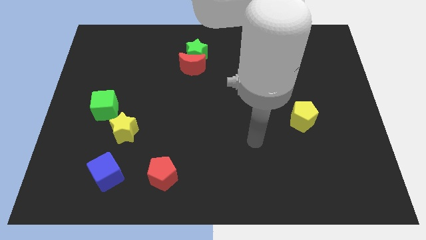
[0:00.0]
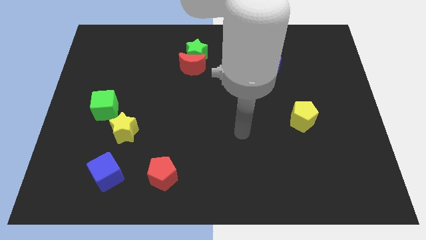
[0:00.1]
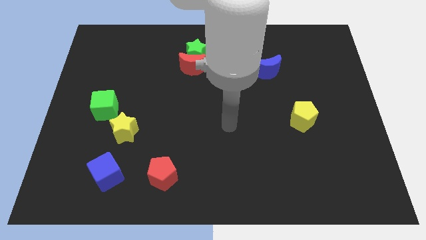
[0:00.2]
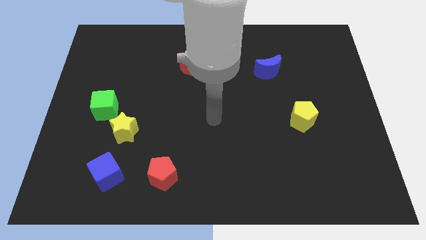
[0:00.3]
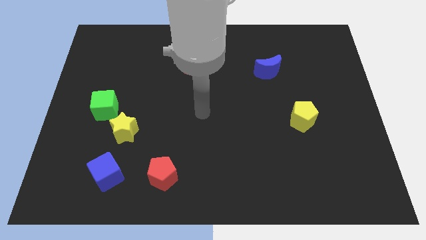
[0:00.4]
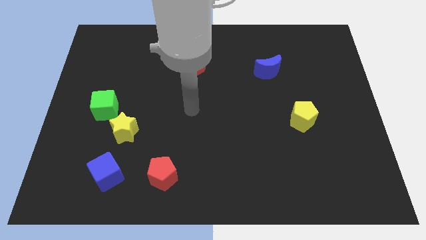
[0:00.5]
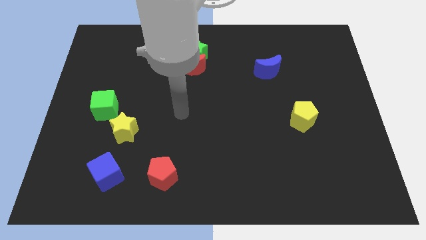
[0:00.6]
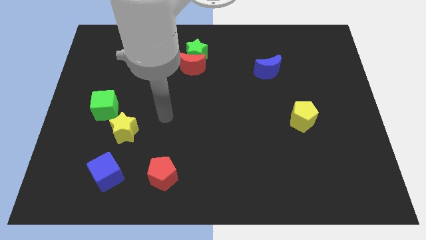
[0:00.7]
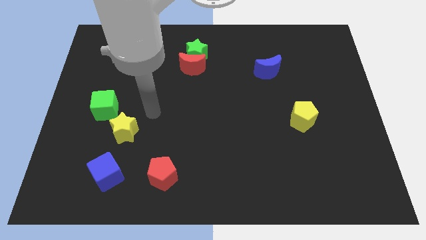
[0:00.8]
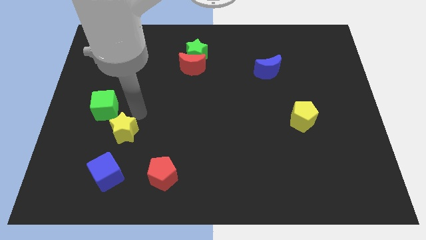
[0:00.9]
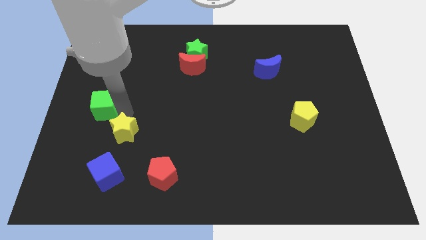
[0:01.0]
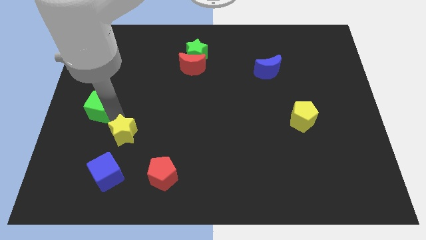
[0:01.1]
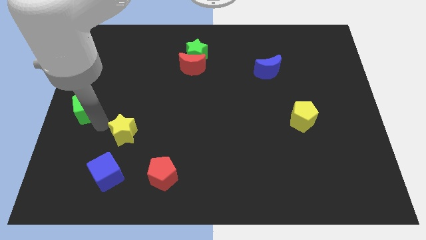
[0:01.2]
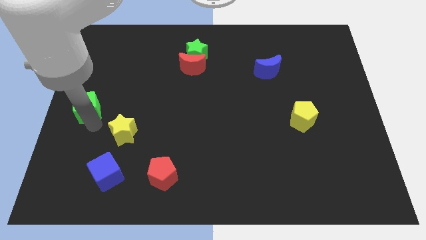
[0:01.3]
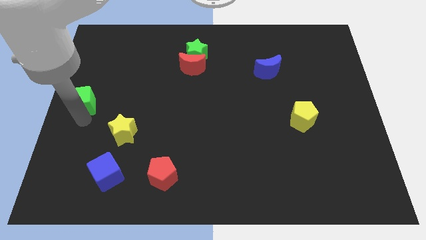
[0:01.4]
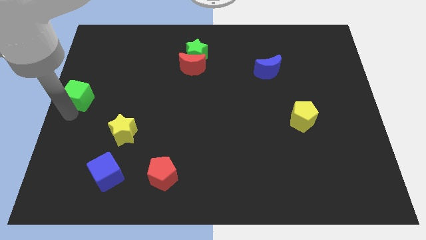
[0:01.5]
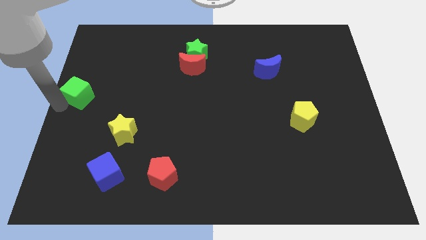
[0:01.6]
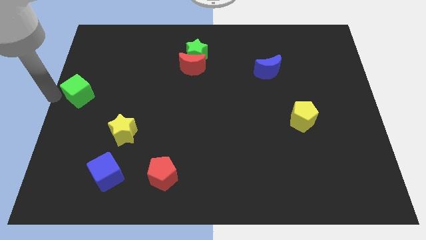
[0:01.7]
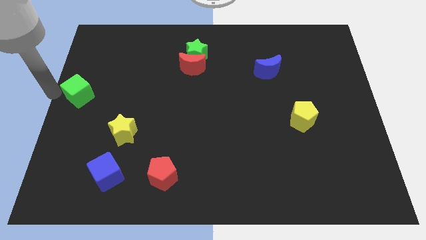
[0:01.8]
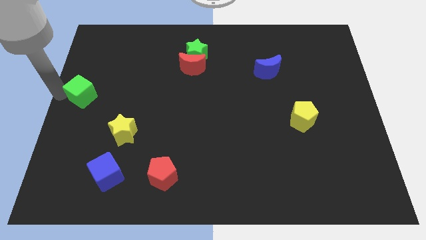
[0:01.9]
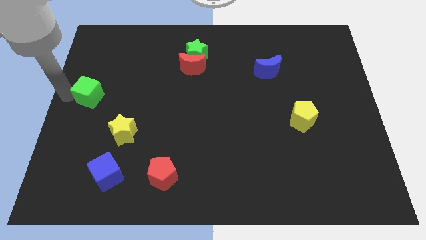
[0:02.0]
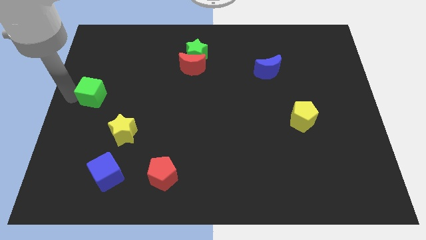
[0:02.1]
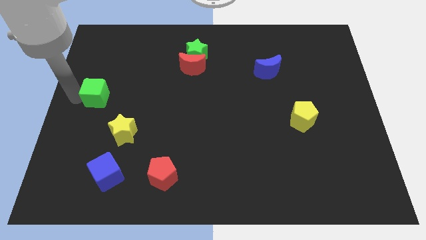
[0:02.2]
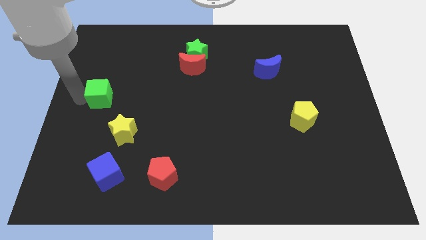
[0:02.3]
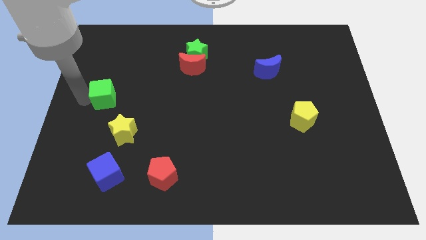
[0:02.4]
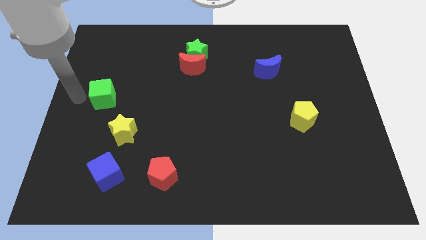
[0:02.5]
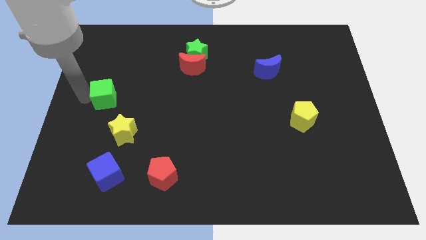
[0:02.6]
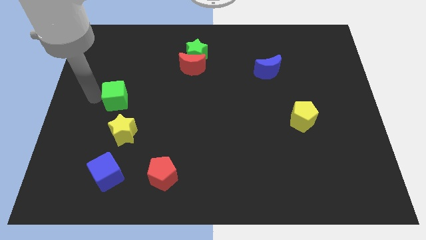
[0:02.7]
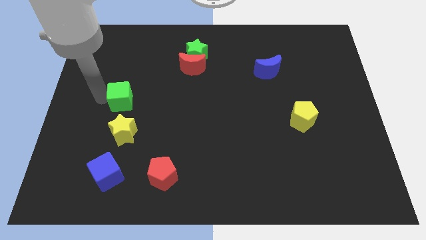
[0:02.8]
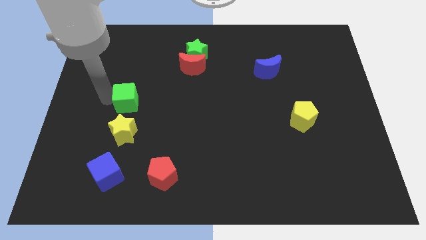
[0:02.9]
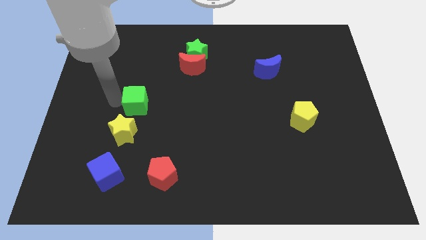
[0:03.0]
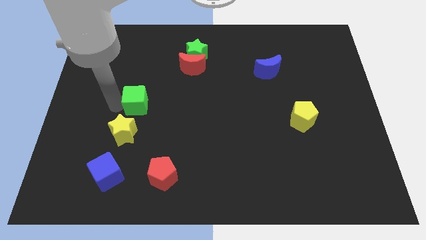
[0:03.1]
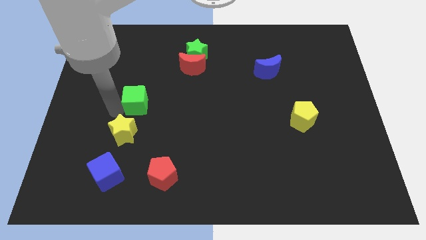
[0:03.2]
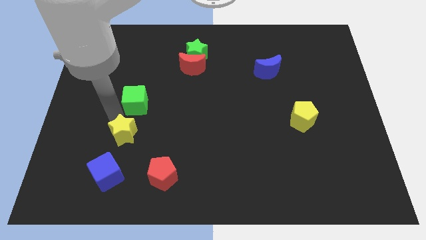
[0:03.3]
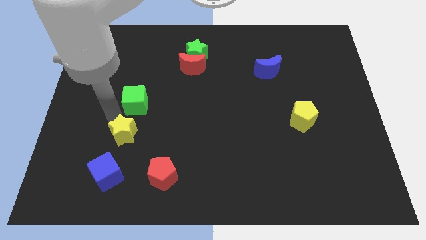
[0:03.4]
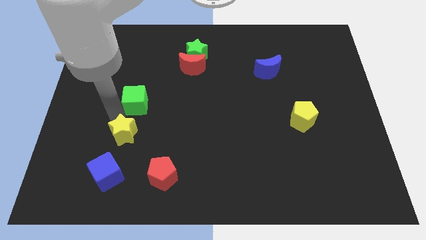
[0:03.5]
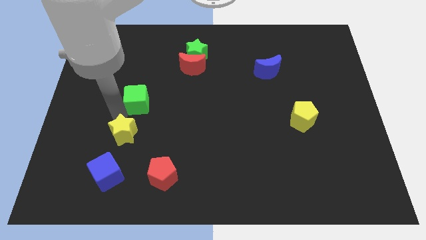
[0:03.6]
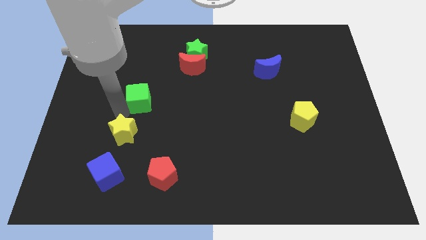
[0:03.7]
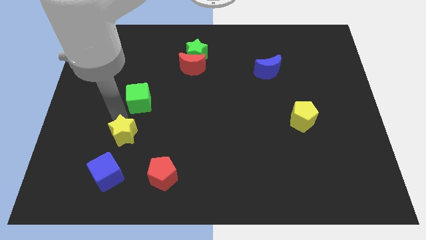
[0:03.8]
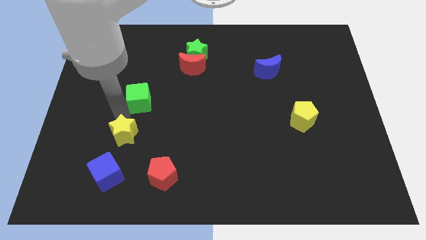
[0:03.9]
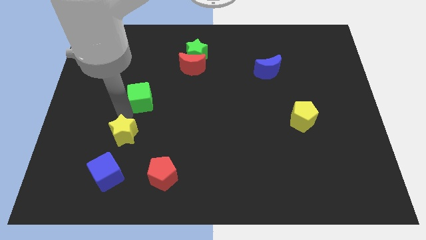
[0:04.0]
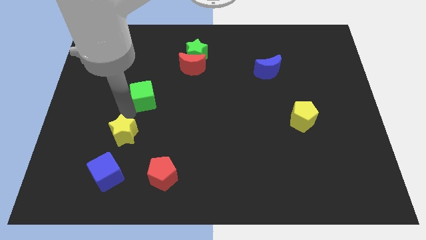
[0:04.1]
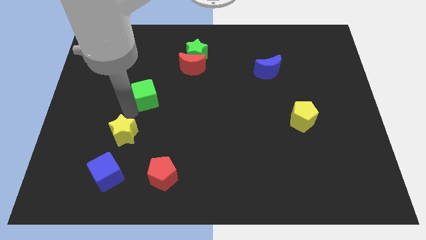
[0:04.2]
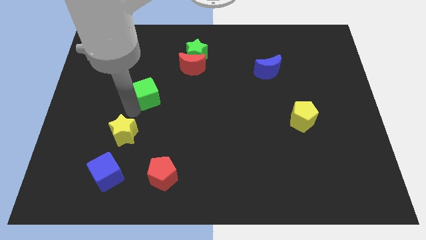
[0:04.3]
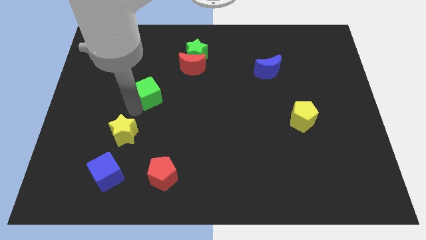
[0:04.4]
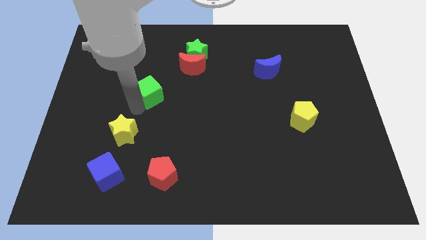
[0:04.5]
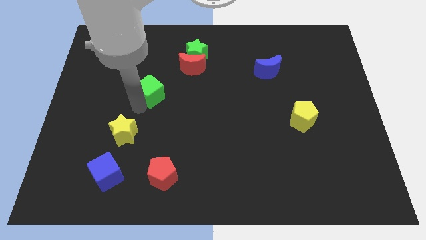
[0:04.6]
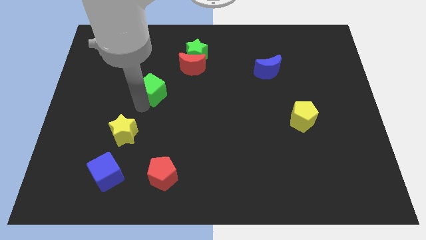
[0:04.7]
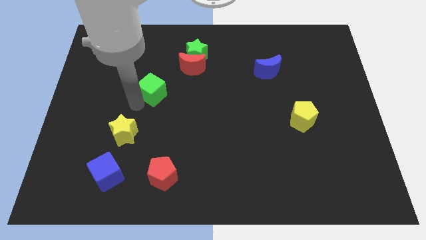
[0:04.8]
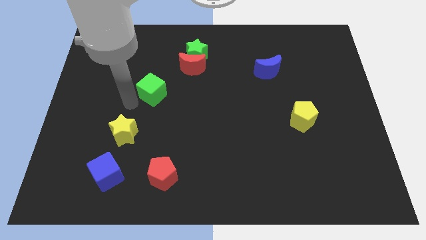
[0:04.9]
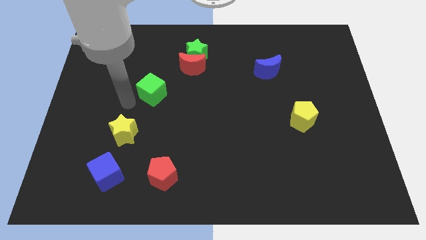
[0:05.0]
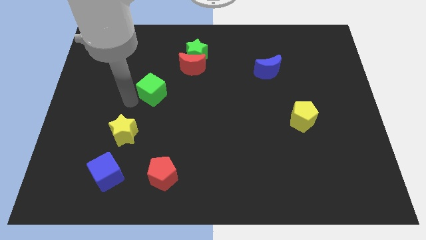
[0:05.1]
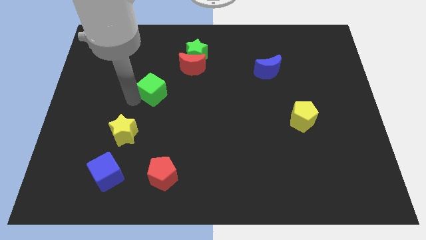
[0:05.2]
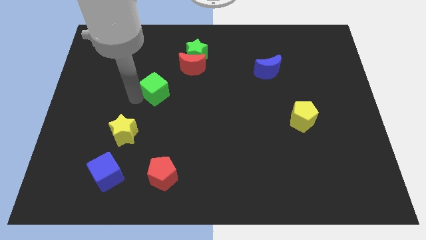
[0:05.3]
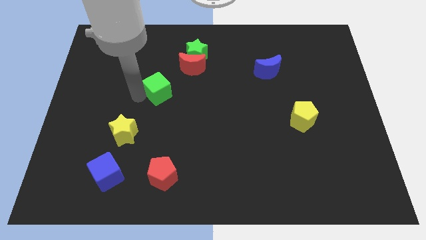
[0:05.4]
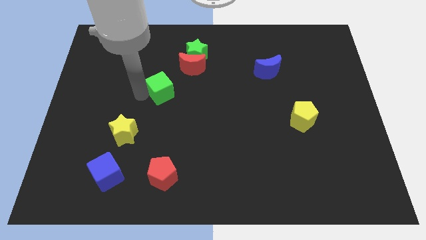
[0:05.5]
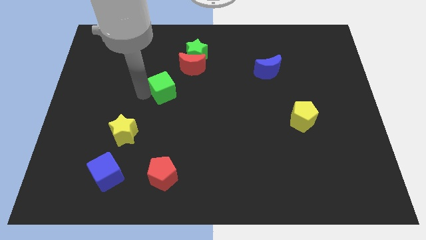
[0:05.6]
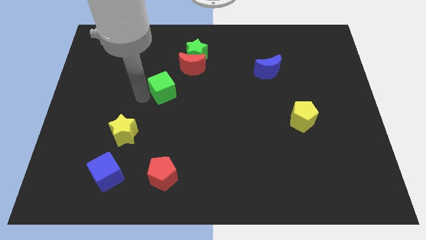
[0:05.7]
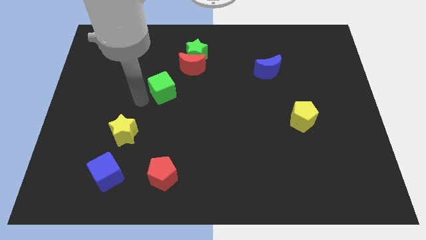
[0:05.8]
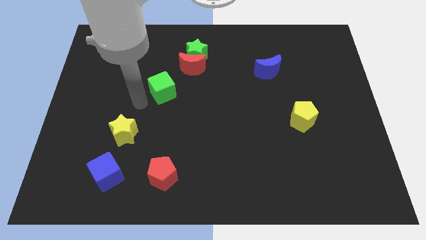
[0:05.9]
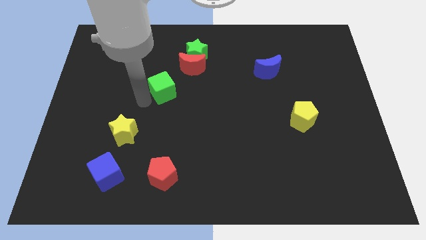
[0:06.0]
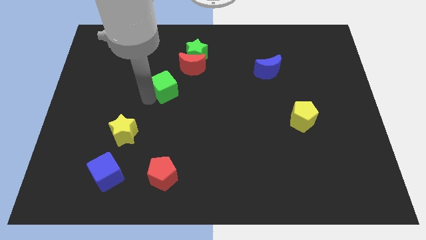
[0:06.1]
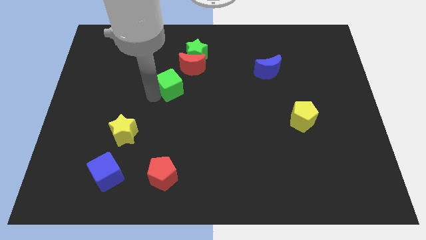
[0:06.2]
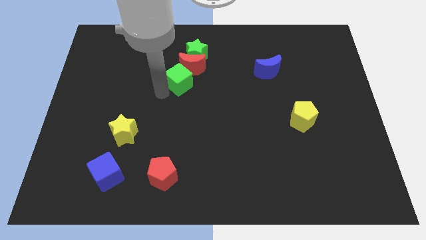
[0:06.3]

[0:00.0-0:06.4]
put the green cube next to the red moon
